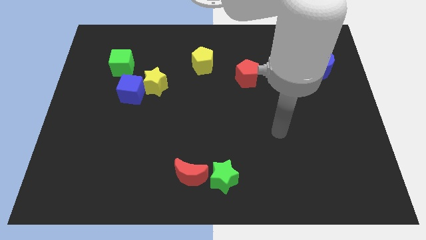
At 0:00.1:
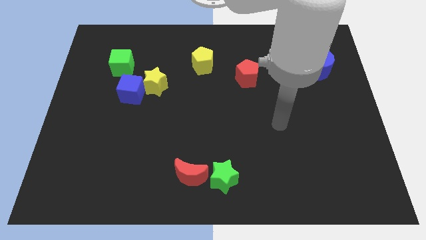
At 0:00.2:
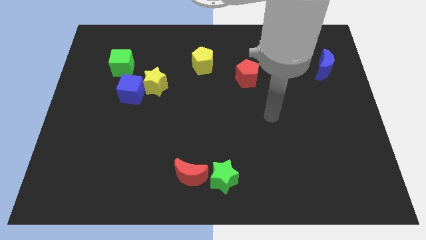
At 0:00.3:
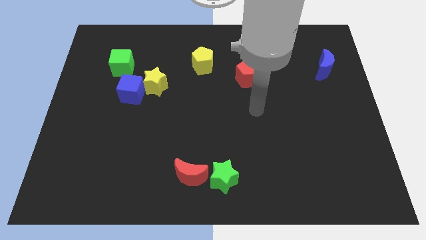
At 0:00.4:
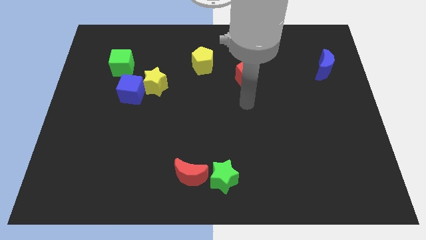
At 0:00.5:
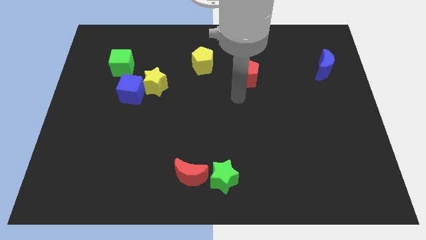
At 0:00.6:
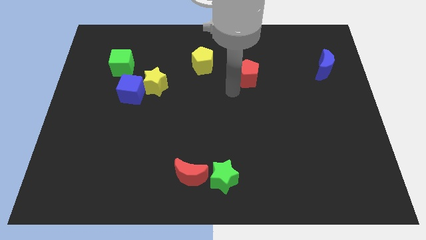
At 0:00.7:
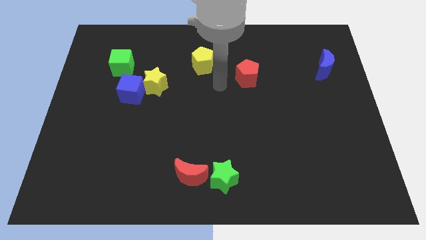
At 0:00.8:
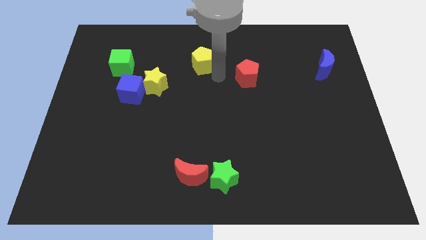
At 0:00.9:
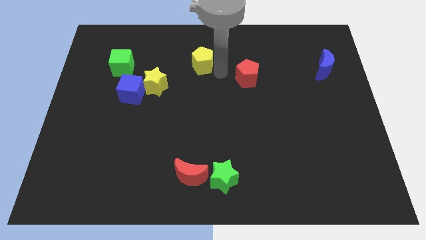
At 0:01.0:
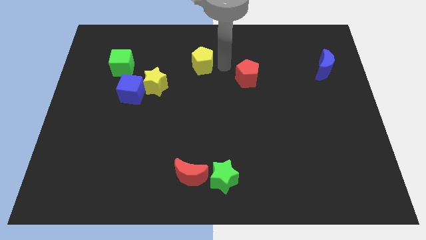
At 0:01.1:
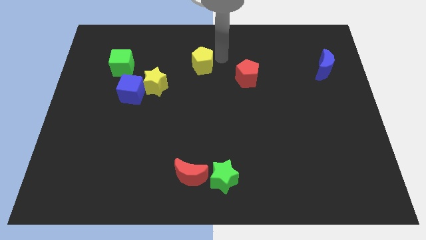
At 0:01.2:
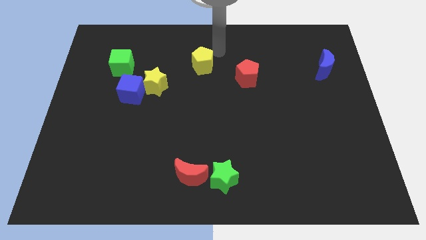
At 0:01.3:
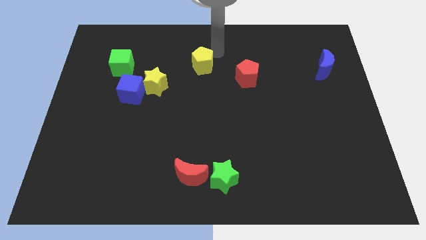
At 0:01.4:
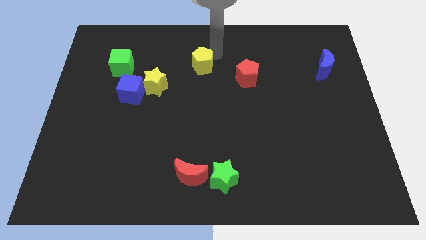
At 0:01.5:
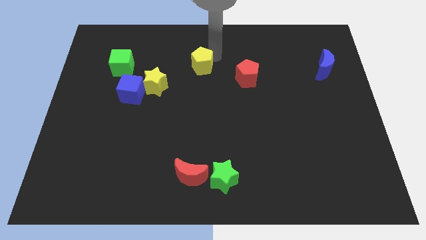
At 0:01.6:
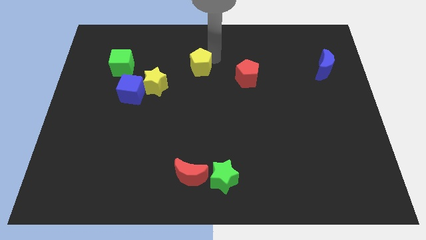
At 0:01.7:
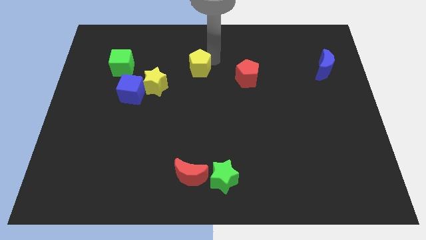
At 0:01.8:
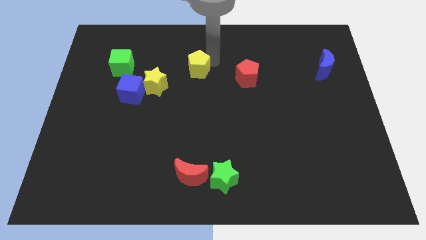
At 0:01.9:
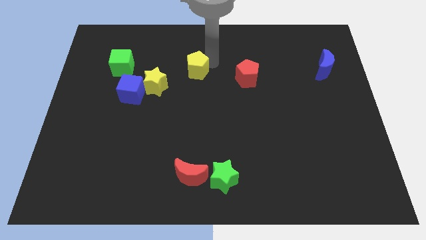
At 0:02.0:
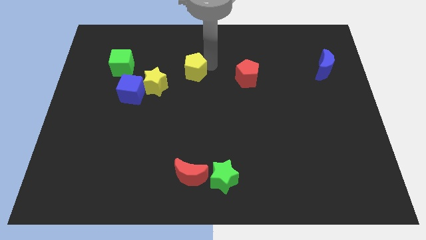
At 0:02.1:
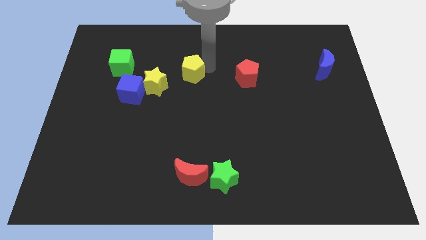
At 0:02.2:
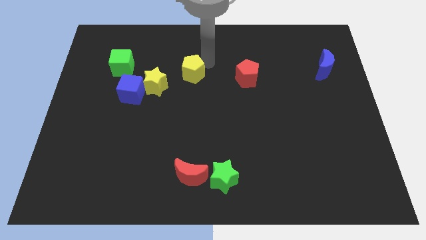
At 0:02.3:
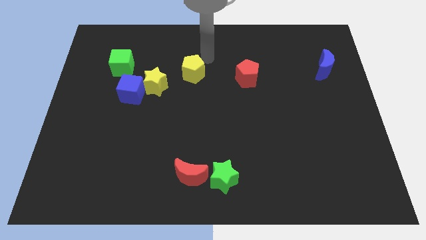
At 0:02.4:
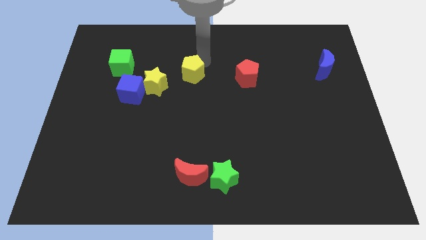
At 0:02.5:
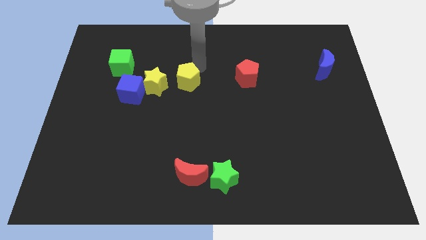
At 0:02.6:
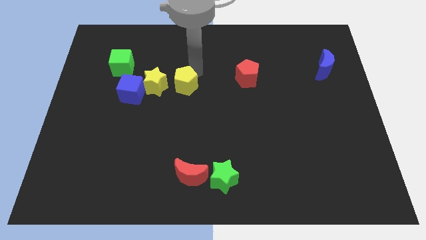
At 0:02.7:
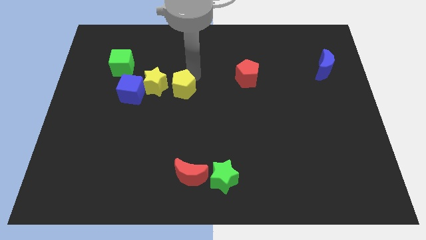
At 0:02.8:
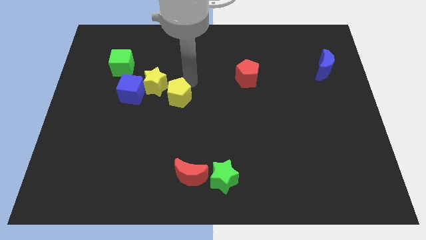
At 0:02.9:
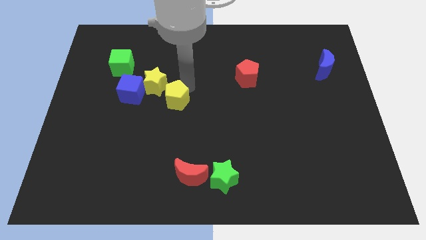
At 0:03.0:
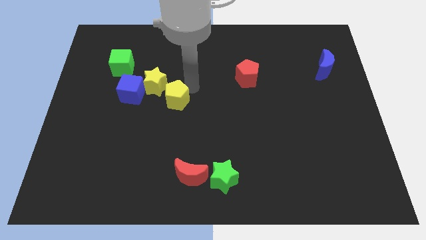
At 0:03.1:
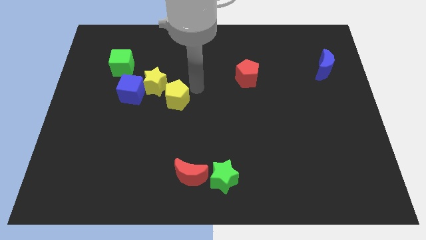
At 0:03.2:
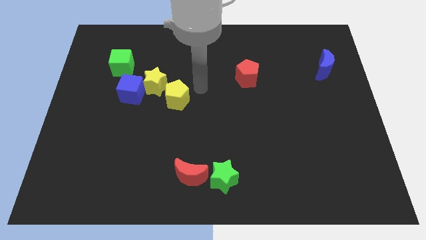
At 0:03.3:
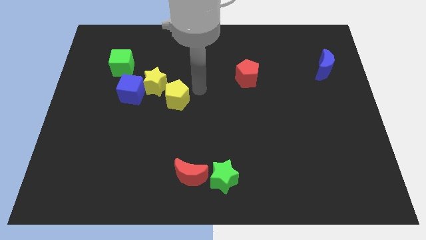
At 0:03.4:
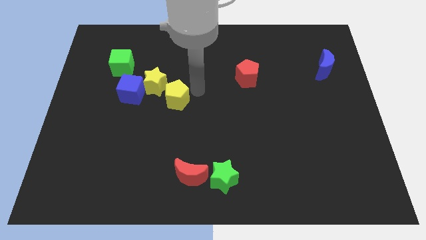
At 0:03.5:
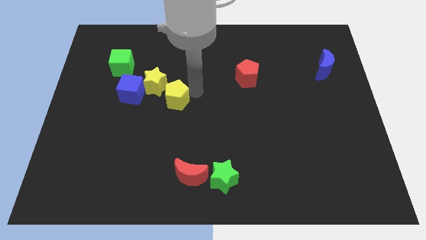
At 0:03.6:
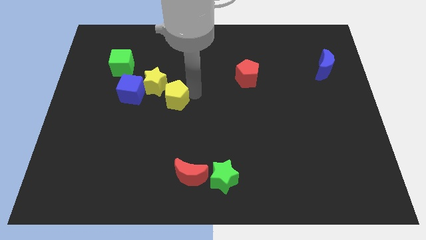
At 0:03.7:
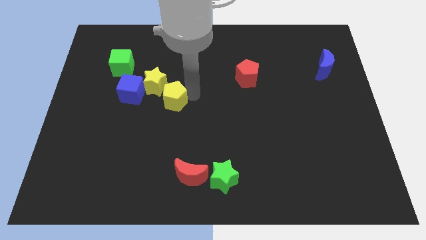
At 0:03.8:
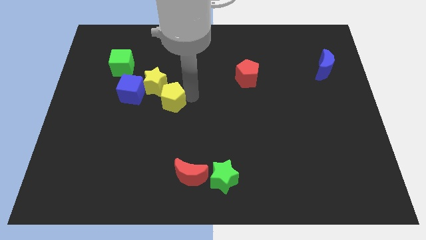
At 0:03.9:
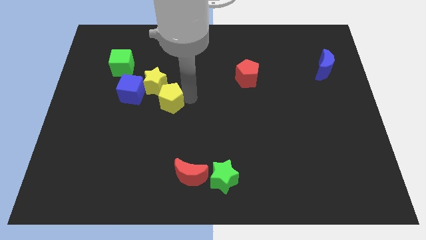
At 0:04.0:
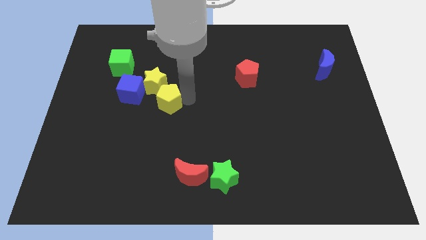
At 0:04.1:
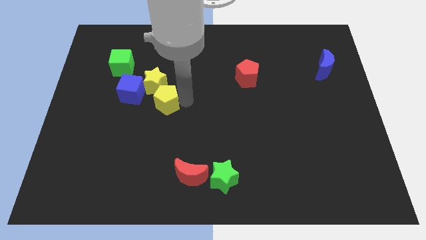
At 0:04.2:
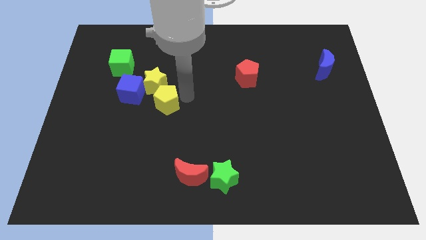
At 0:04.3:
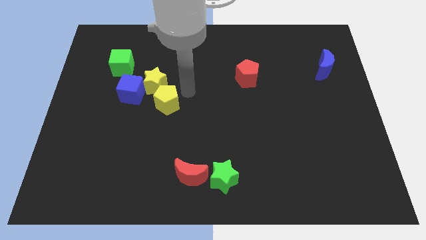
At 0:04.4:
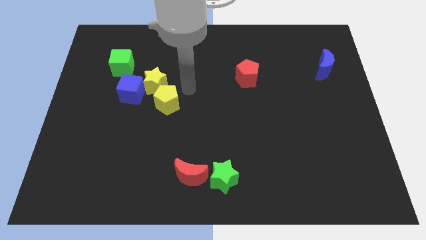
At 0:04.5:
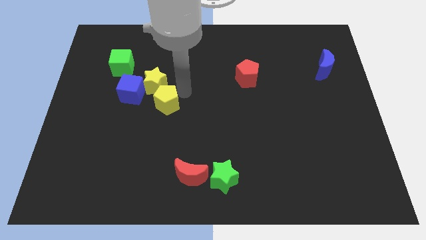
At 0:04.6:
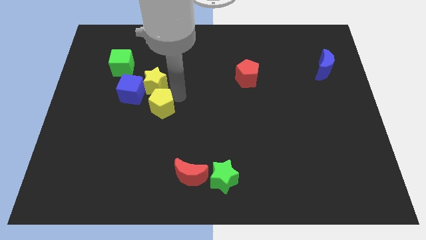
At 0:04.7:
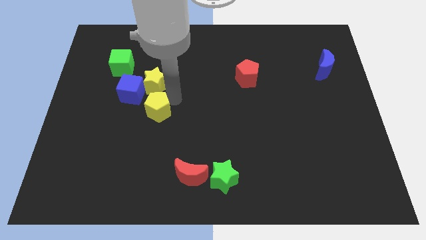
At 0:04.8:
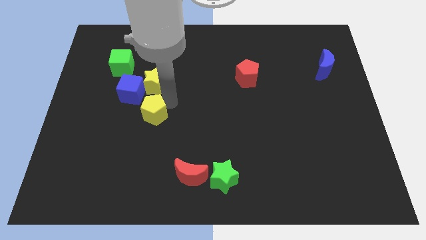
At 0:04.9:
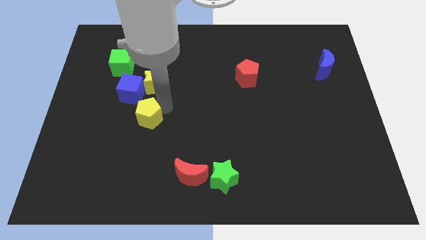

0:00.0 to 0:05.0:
slide the yellow pentagon downwards and then to the left

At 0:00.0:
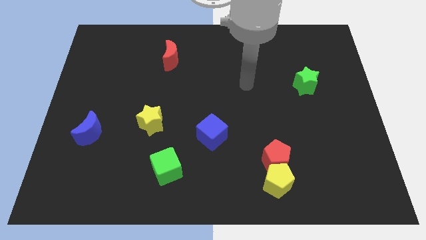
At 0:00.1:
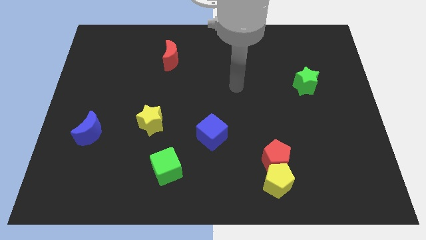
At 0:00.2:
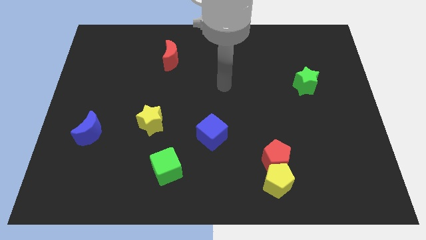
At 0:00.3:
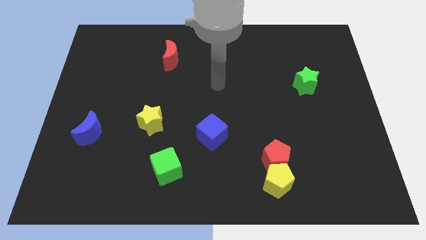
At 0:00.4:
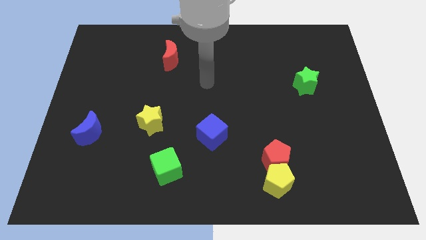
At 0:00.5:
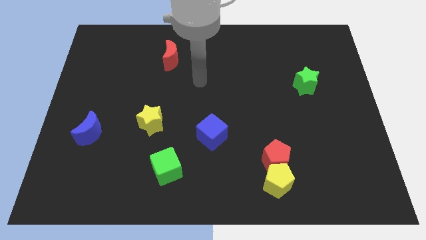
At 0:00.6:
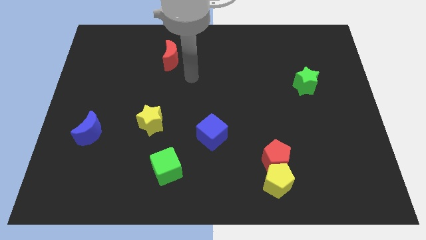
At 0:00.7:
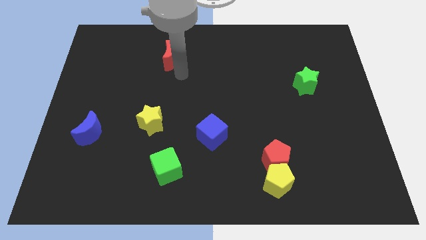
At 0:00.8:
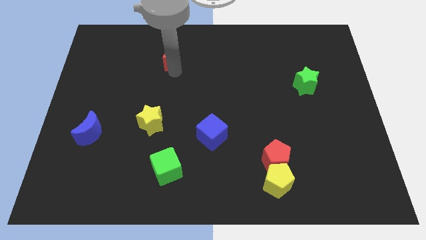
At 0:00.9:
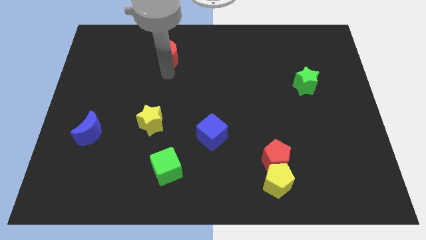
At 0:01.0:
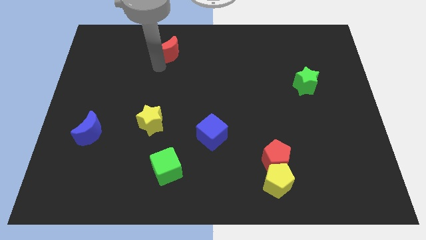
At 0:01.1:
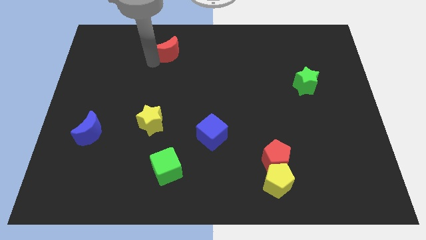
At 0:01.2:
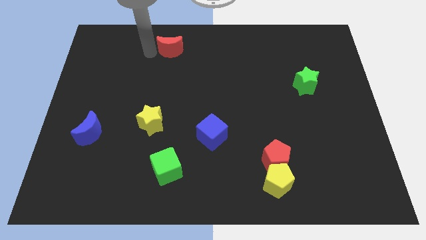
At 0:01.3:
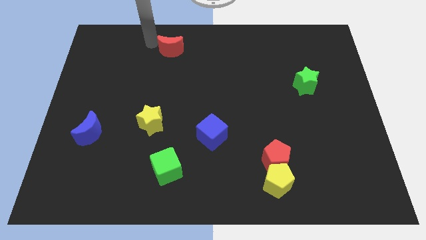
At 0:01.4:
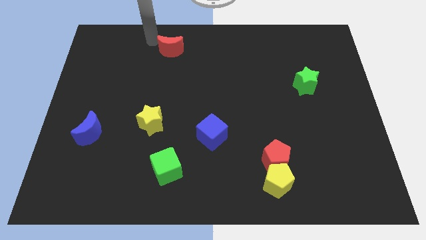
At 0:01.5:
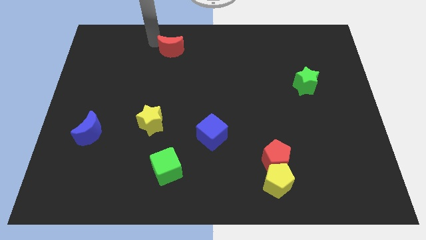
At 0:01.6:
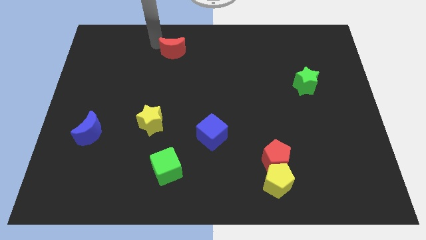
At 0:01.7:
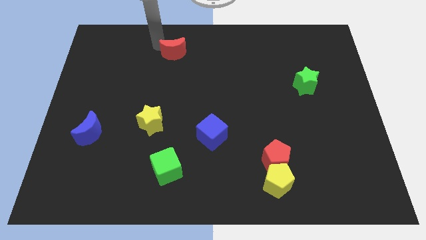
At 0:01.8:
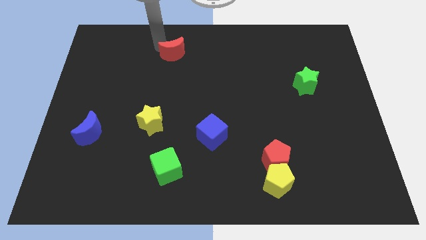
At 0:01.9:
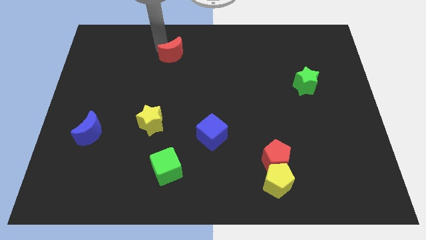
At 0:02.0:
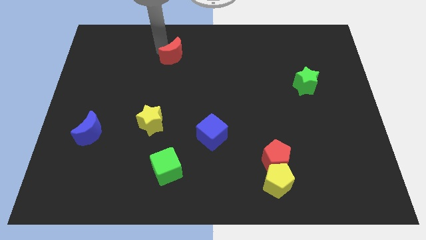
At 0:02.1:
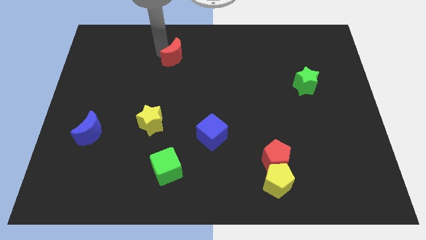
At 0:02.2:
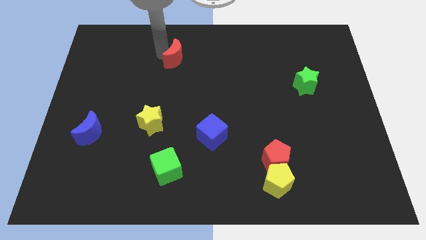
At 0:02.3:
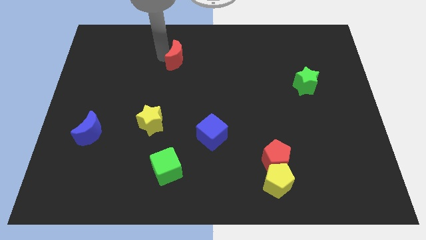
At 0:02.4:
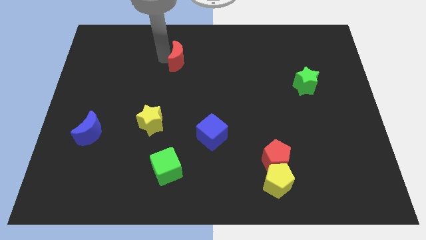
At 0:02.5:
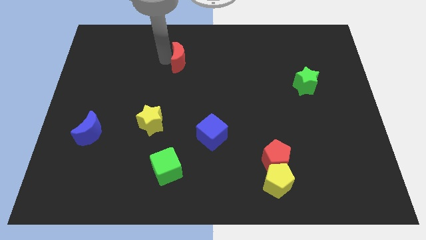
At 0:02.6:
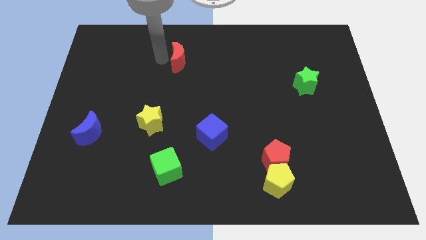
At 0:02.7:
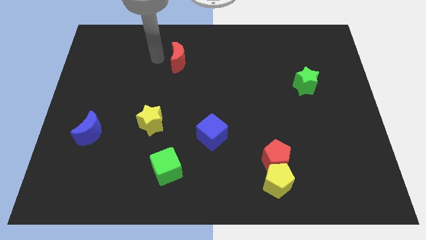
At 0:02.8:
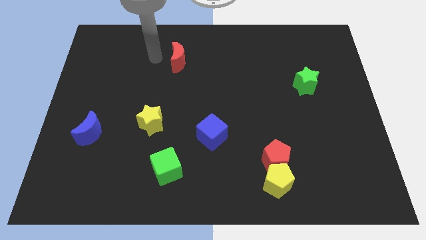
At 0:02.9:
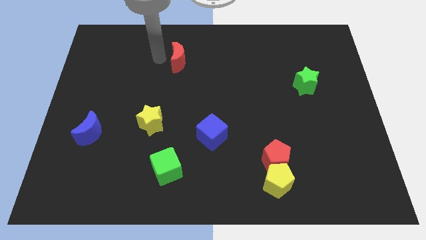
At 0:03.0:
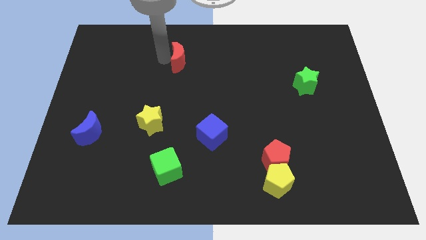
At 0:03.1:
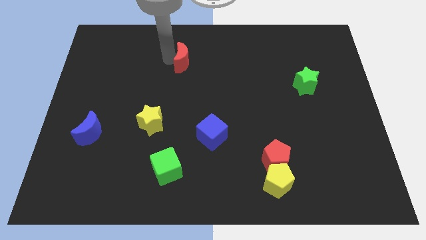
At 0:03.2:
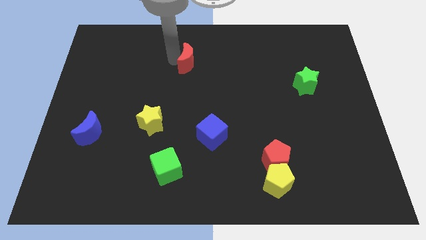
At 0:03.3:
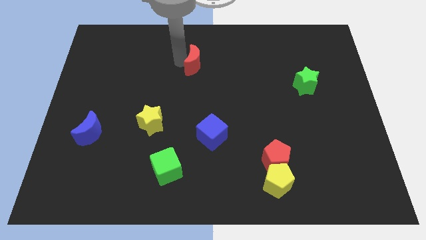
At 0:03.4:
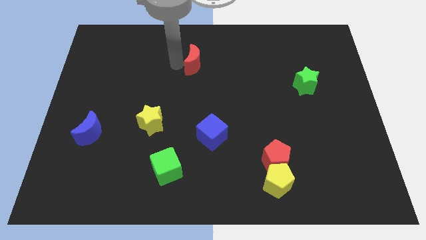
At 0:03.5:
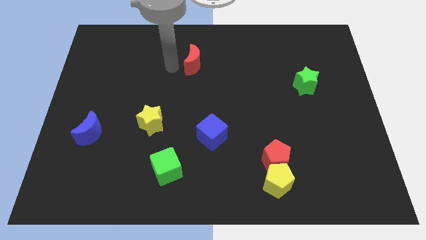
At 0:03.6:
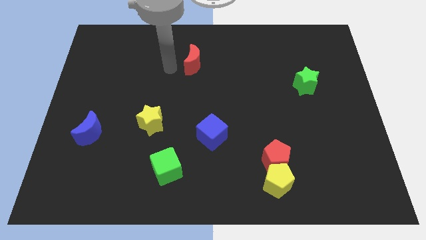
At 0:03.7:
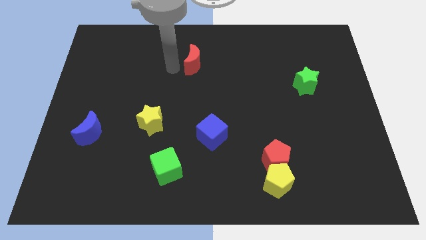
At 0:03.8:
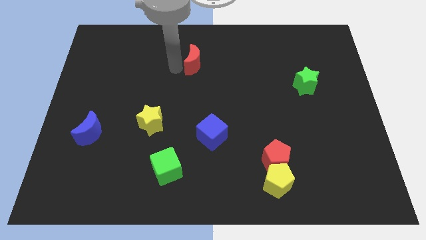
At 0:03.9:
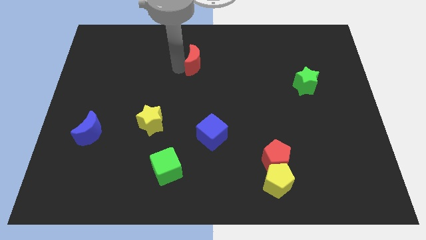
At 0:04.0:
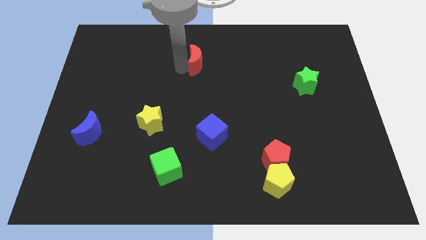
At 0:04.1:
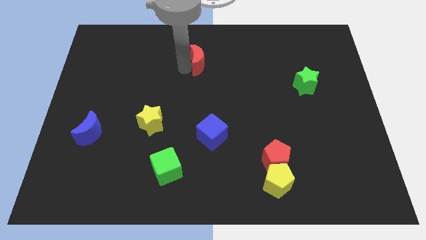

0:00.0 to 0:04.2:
slightly slide the red moon to the right
